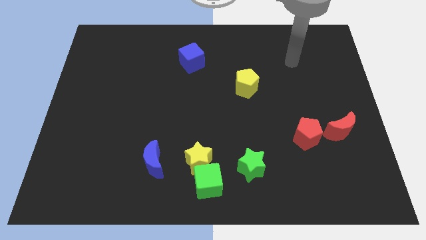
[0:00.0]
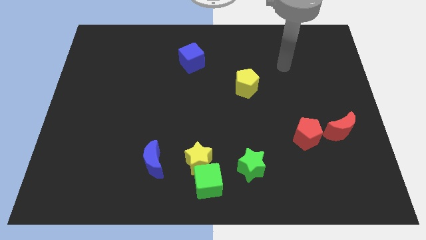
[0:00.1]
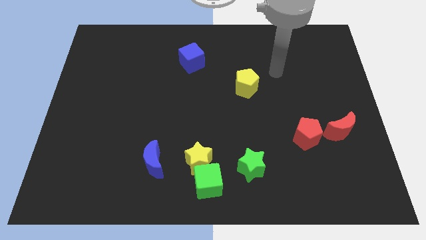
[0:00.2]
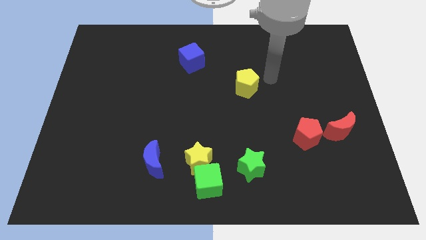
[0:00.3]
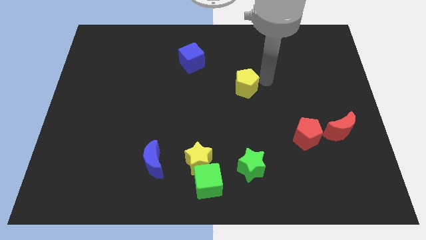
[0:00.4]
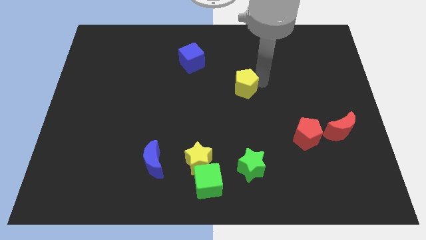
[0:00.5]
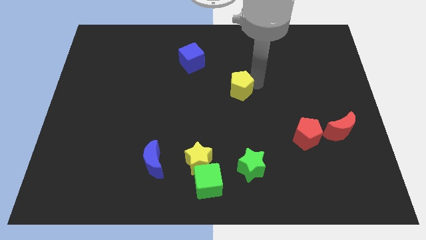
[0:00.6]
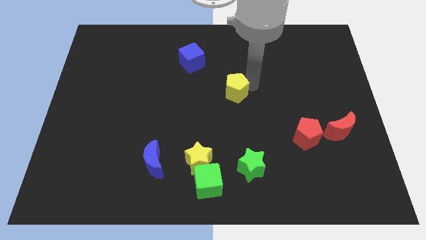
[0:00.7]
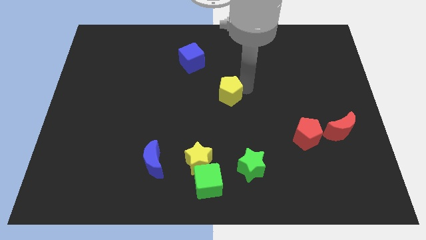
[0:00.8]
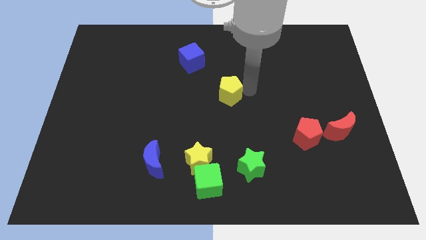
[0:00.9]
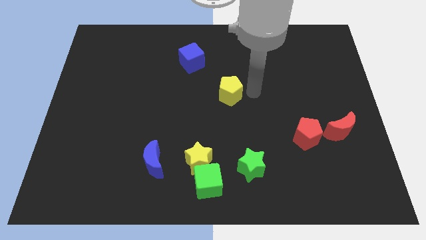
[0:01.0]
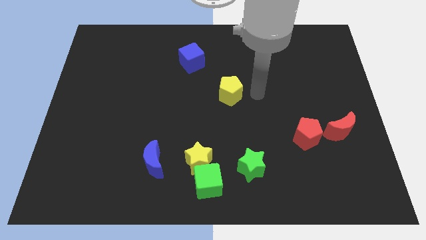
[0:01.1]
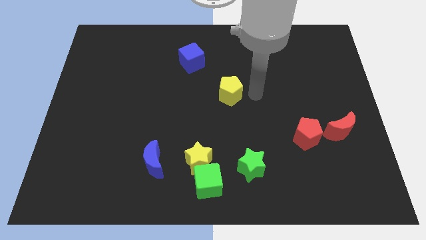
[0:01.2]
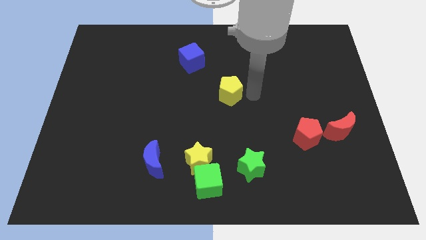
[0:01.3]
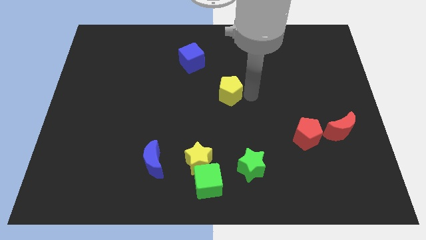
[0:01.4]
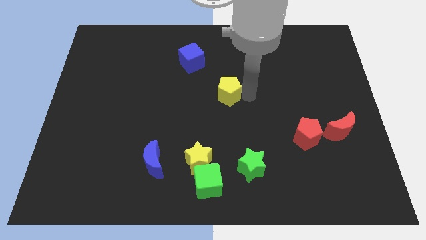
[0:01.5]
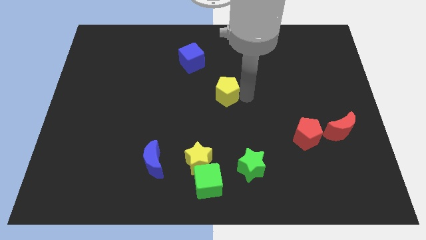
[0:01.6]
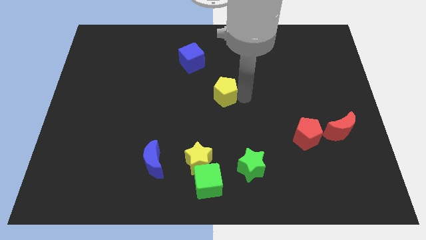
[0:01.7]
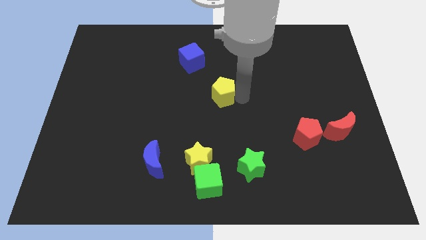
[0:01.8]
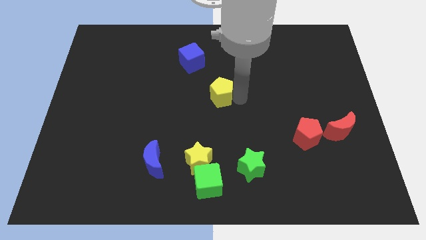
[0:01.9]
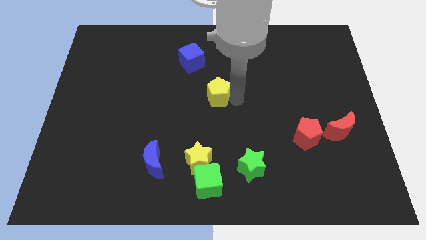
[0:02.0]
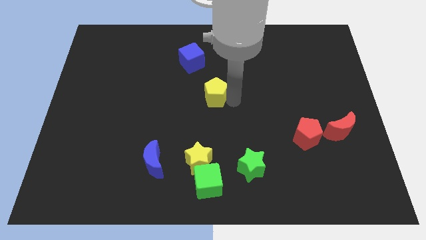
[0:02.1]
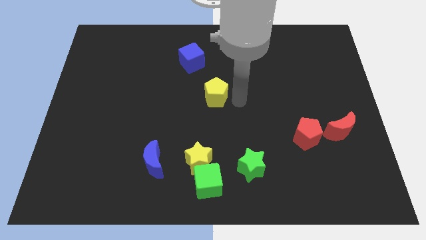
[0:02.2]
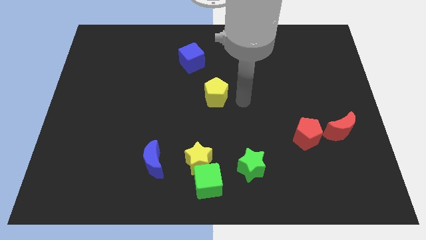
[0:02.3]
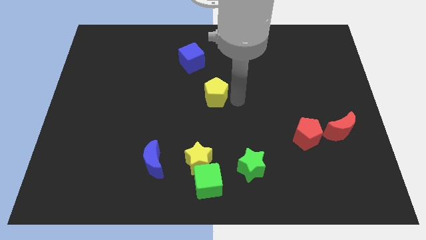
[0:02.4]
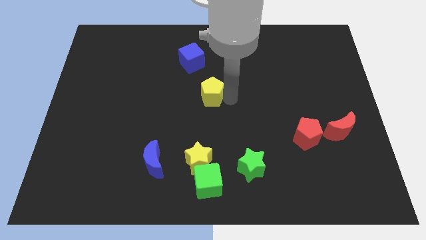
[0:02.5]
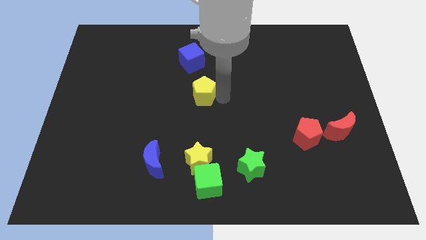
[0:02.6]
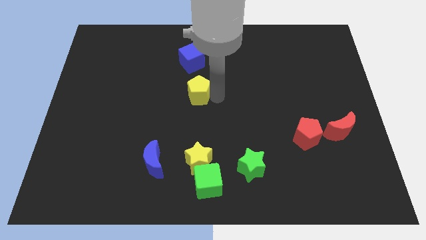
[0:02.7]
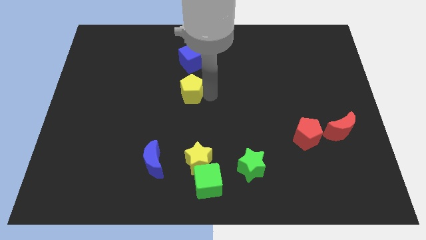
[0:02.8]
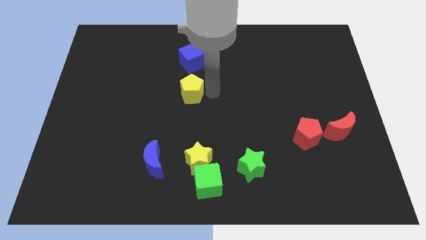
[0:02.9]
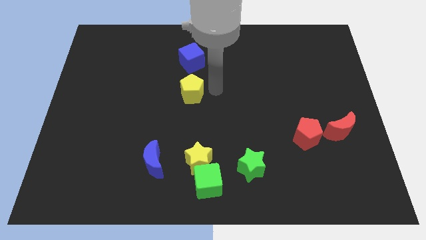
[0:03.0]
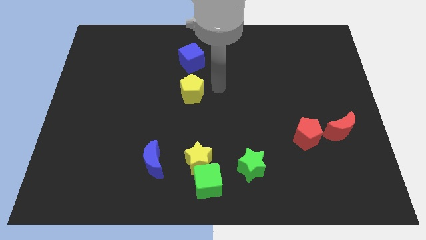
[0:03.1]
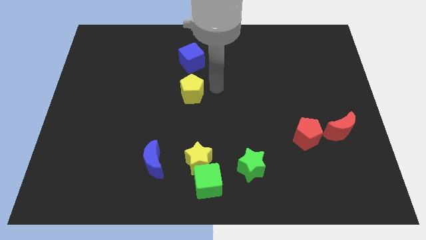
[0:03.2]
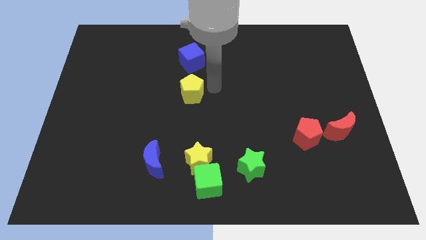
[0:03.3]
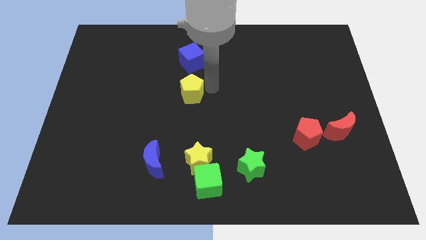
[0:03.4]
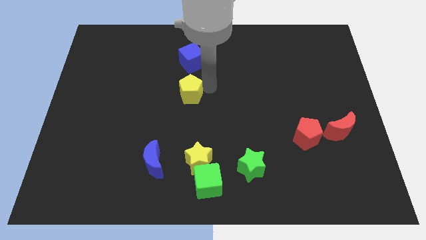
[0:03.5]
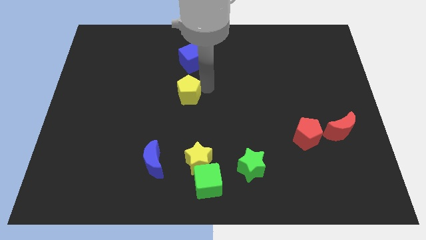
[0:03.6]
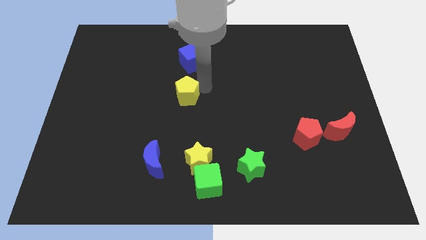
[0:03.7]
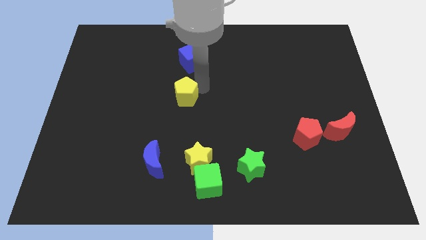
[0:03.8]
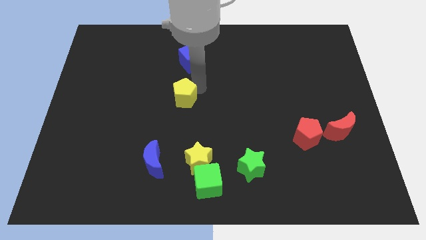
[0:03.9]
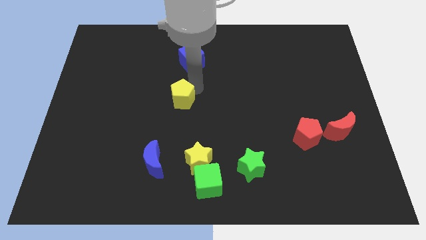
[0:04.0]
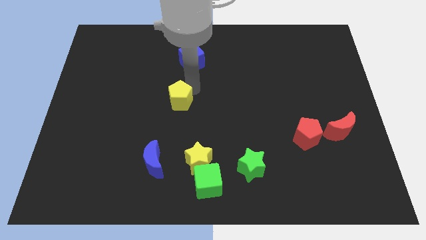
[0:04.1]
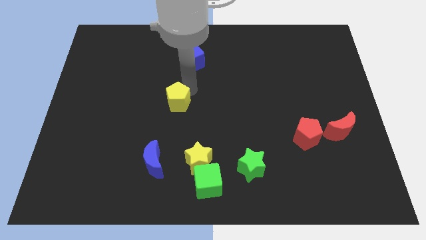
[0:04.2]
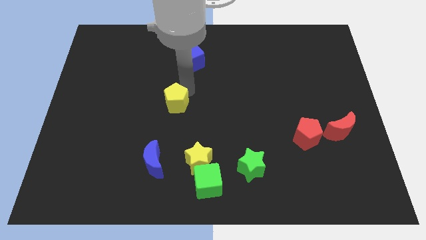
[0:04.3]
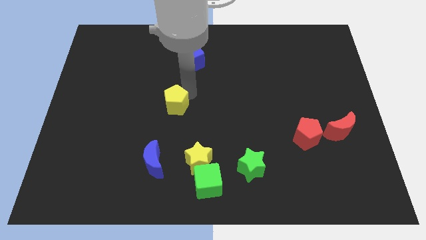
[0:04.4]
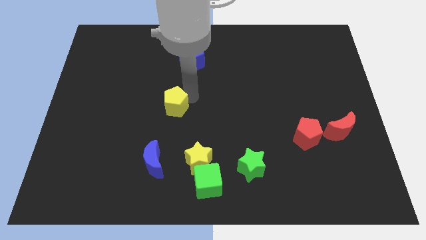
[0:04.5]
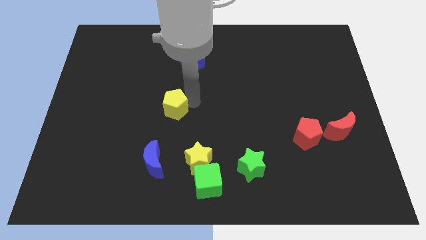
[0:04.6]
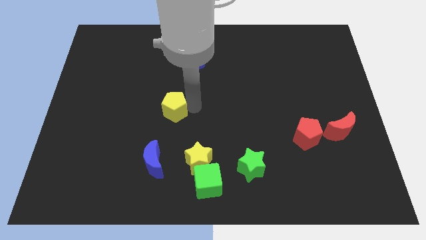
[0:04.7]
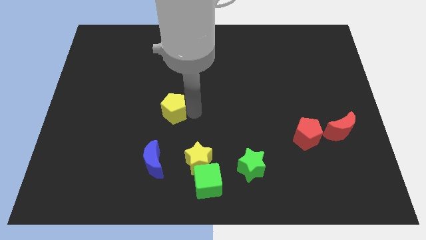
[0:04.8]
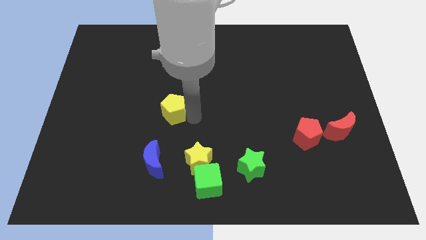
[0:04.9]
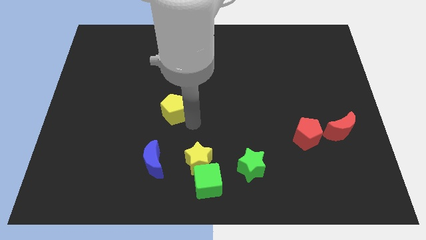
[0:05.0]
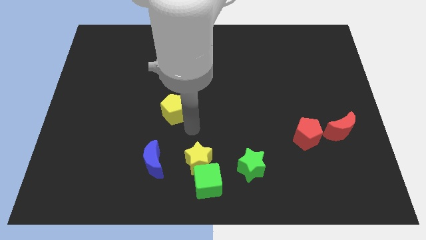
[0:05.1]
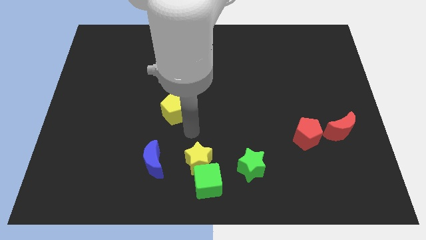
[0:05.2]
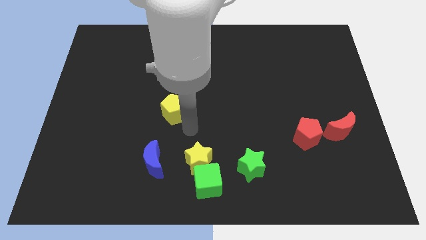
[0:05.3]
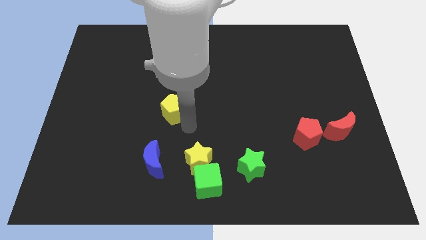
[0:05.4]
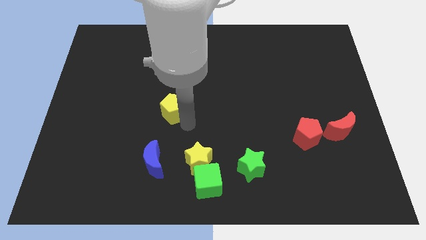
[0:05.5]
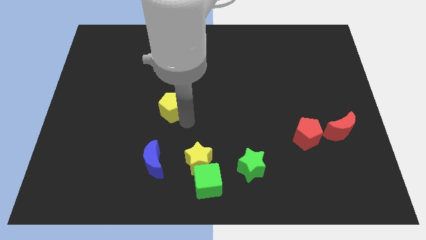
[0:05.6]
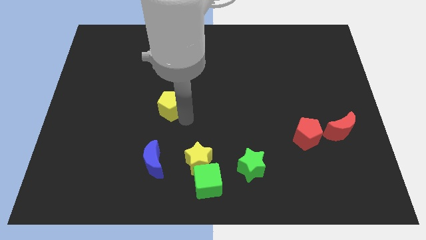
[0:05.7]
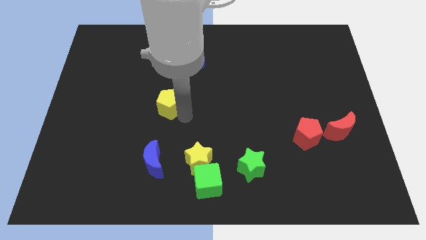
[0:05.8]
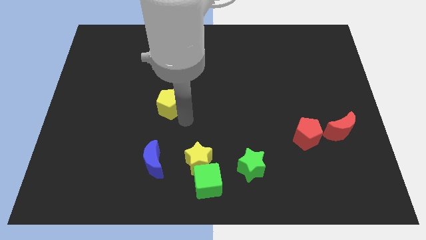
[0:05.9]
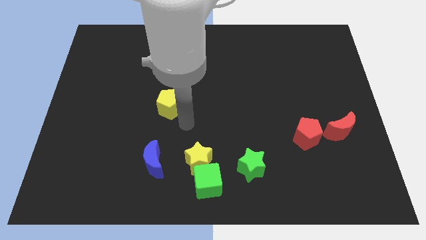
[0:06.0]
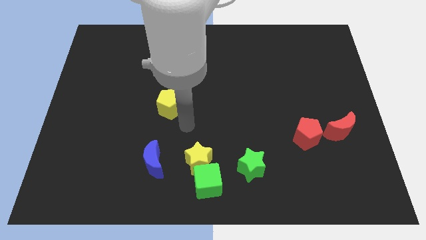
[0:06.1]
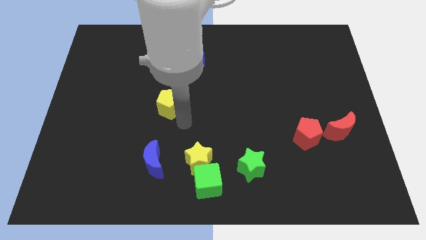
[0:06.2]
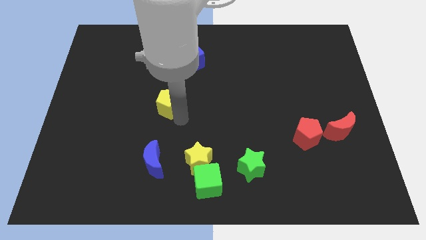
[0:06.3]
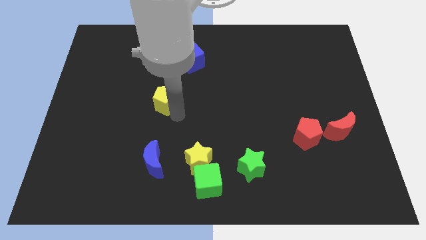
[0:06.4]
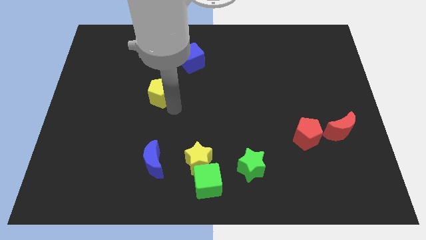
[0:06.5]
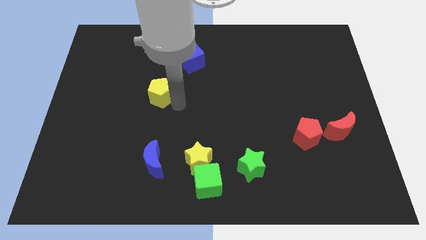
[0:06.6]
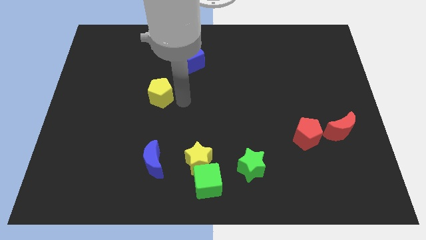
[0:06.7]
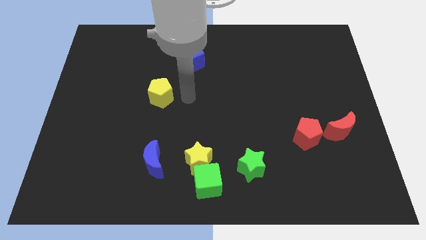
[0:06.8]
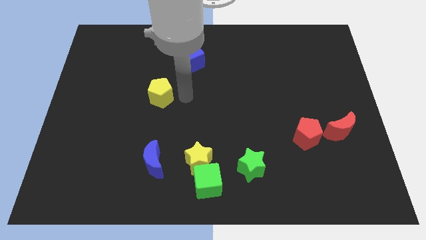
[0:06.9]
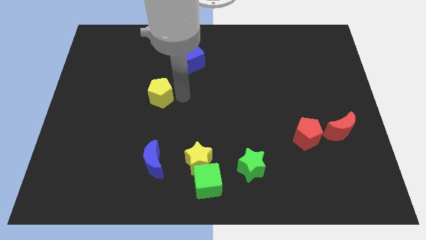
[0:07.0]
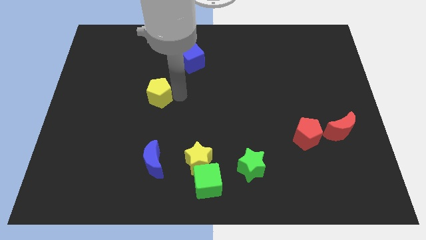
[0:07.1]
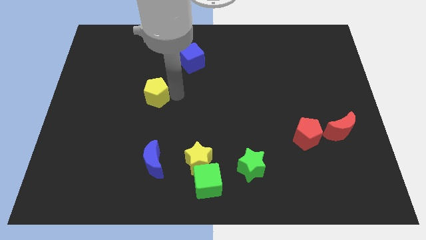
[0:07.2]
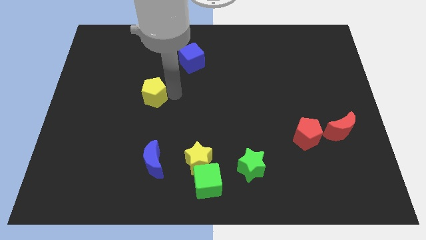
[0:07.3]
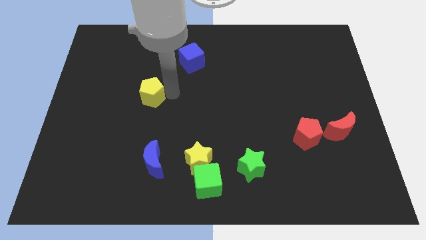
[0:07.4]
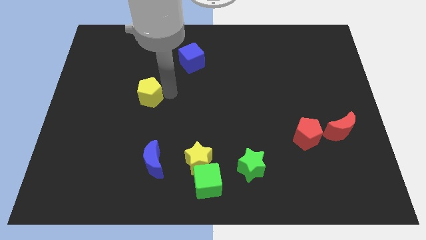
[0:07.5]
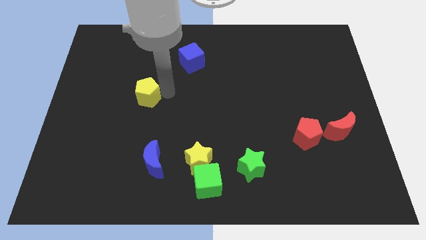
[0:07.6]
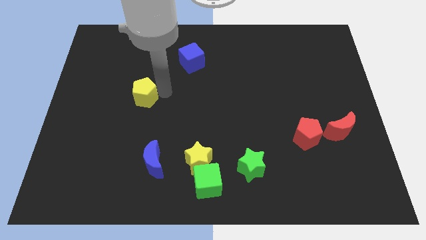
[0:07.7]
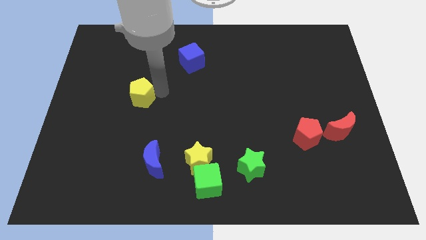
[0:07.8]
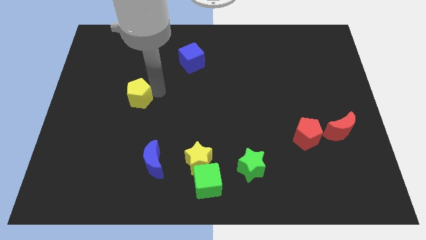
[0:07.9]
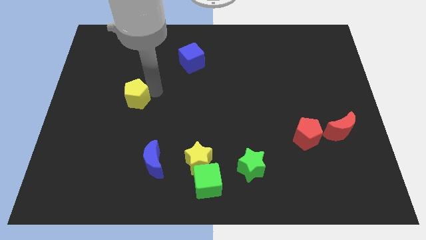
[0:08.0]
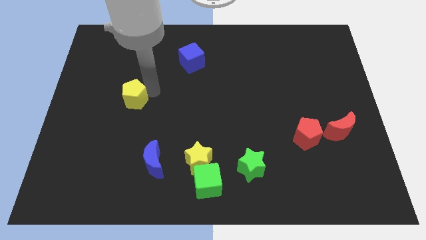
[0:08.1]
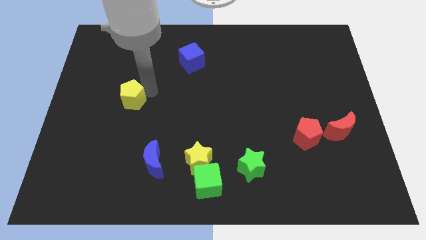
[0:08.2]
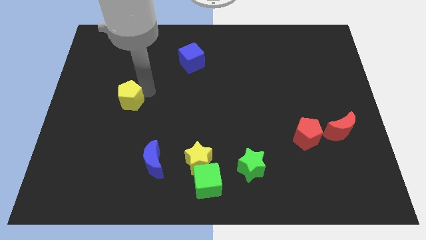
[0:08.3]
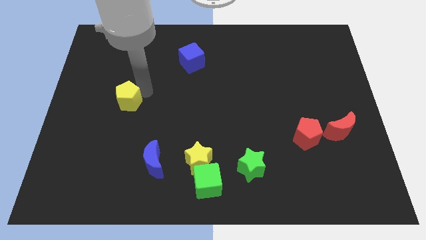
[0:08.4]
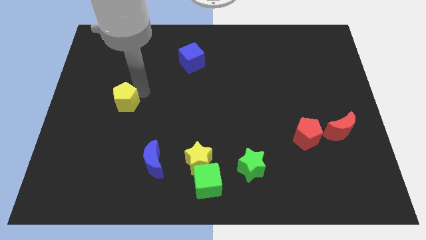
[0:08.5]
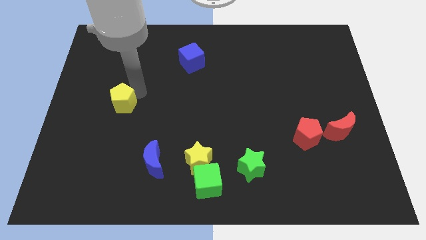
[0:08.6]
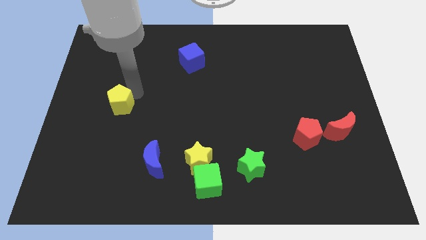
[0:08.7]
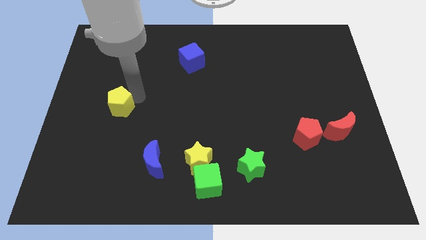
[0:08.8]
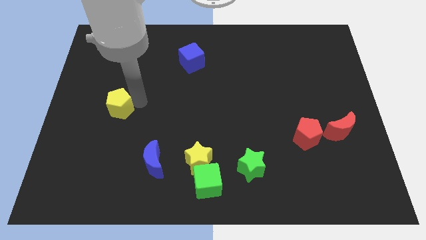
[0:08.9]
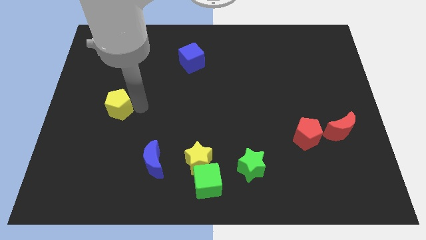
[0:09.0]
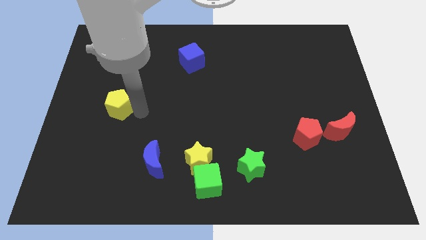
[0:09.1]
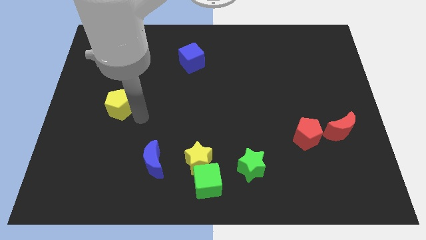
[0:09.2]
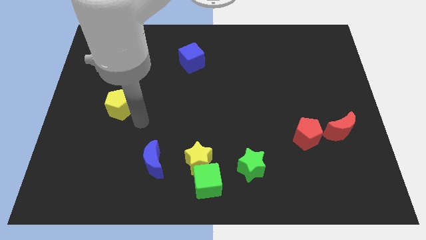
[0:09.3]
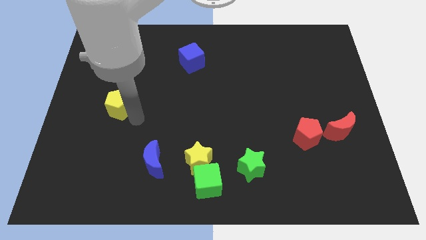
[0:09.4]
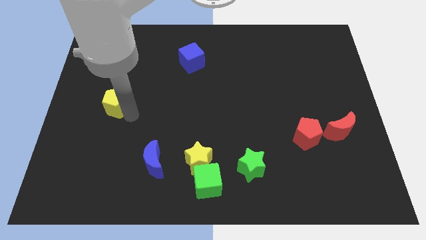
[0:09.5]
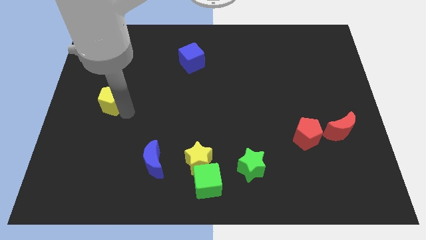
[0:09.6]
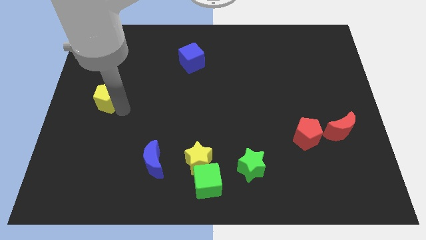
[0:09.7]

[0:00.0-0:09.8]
slide the yellow pentagon to the center left
